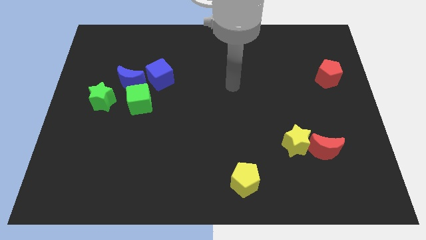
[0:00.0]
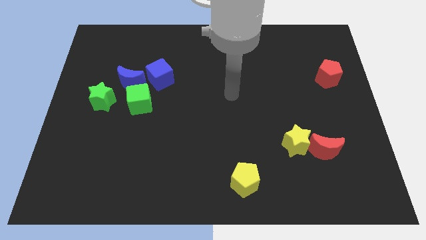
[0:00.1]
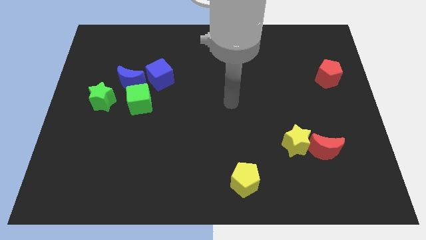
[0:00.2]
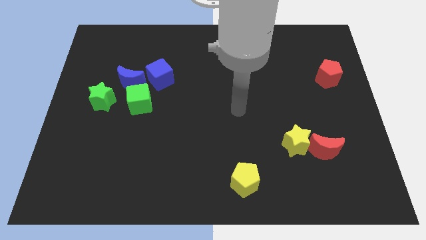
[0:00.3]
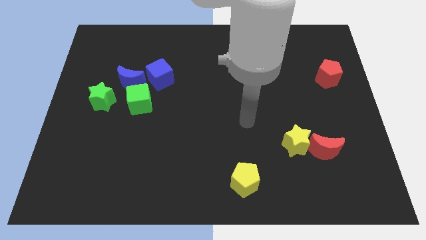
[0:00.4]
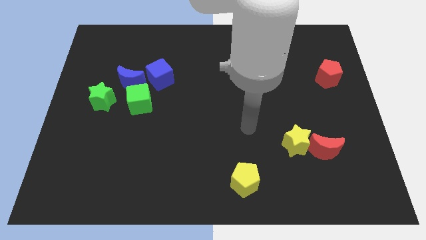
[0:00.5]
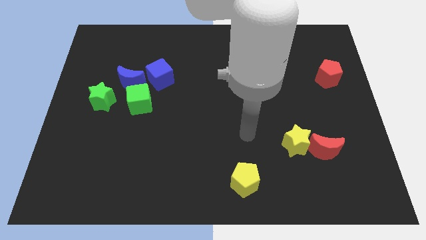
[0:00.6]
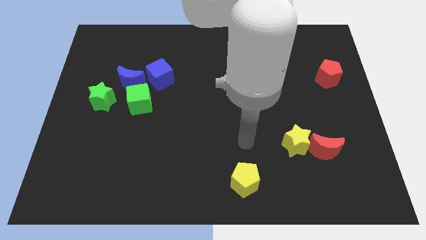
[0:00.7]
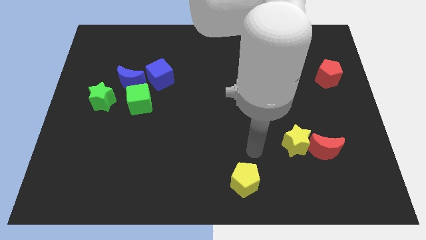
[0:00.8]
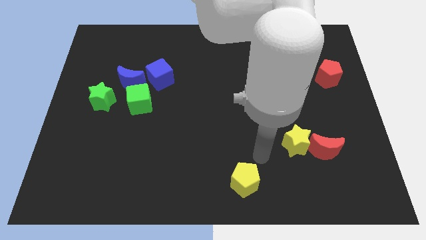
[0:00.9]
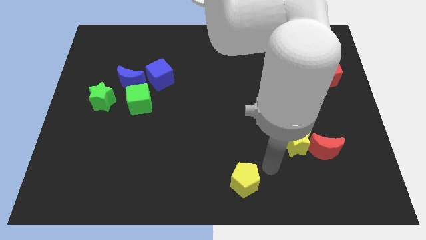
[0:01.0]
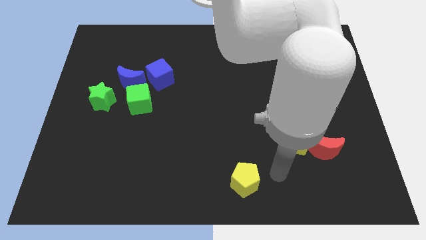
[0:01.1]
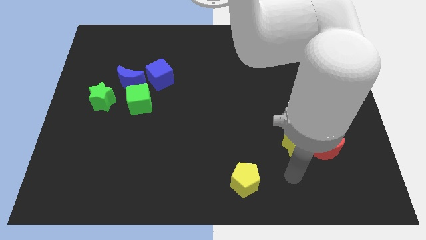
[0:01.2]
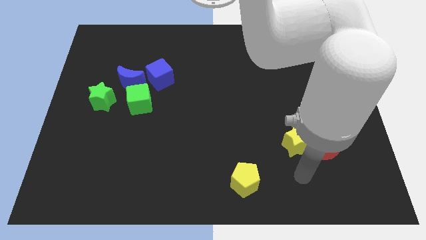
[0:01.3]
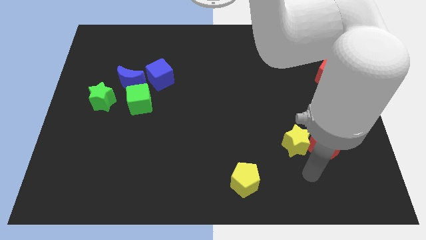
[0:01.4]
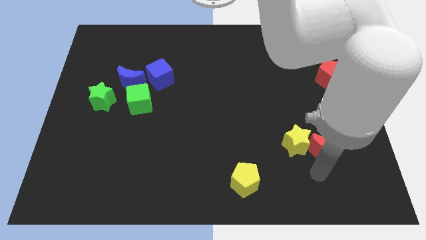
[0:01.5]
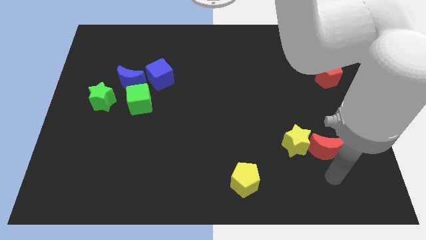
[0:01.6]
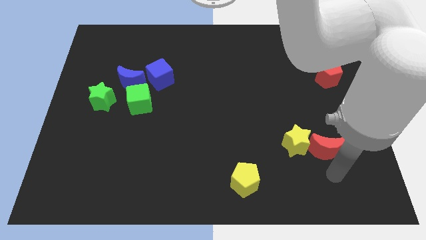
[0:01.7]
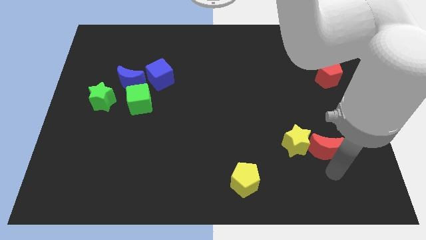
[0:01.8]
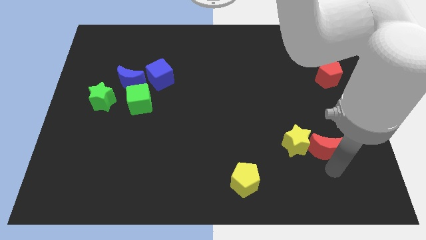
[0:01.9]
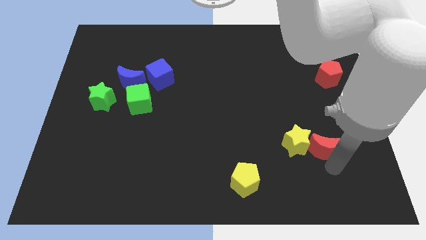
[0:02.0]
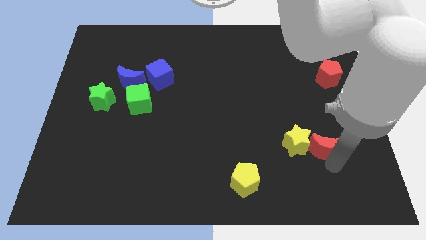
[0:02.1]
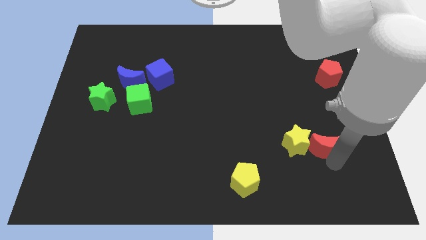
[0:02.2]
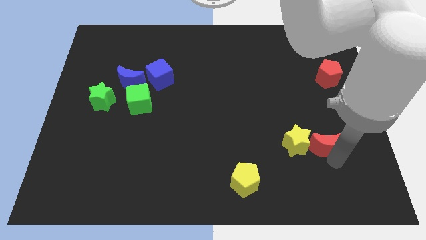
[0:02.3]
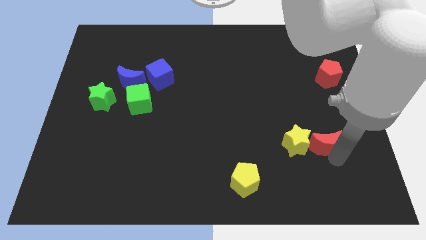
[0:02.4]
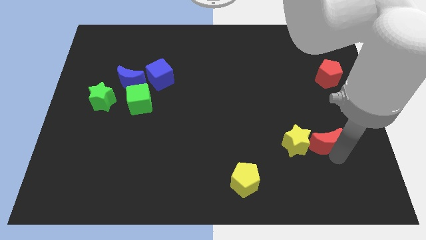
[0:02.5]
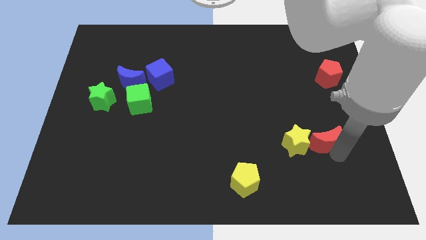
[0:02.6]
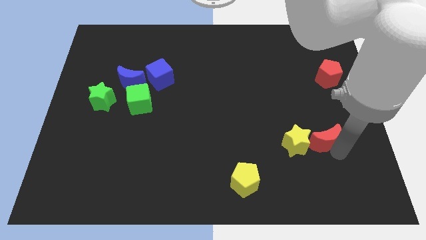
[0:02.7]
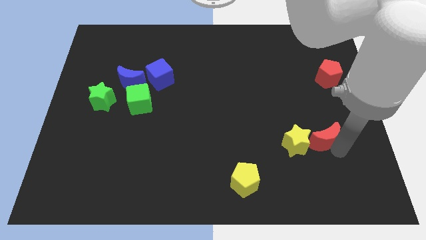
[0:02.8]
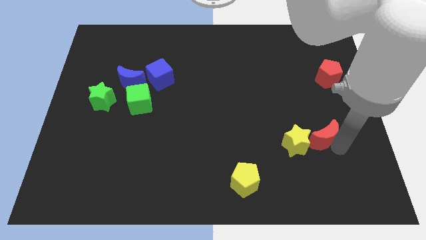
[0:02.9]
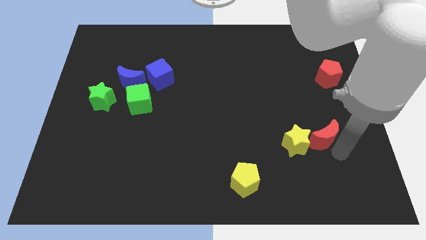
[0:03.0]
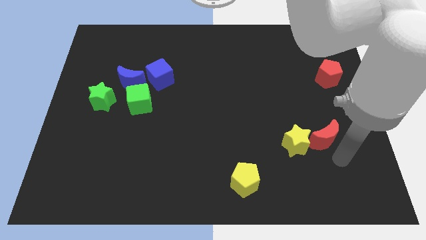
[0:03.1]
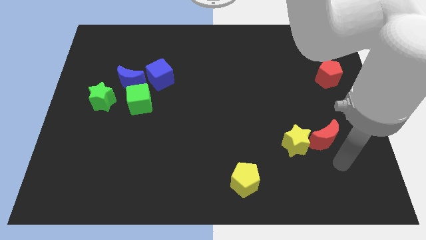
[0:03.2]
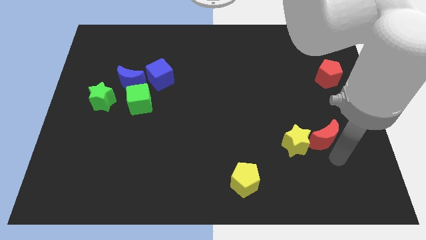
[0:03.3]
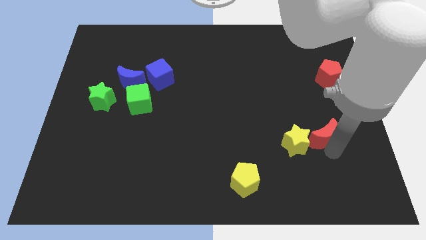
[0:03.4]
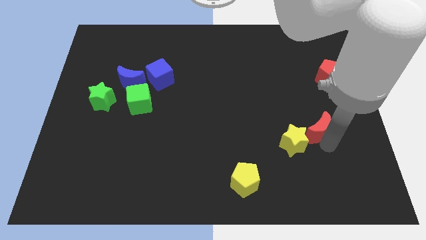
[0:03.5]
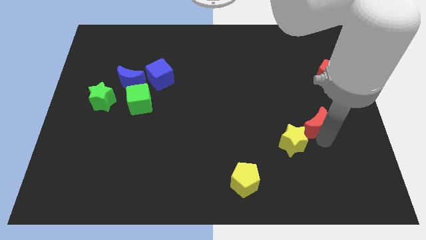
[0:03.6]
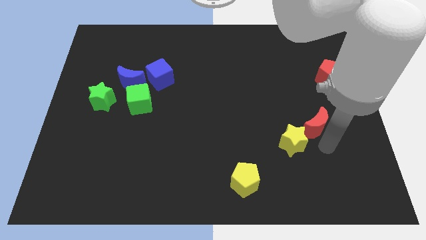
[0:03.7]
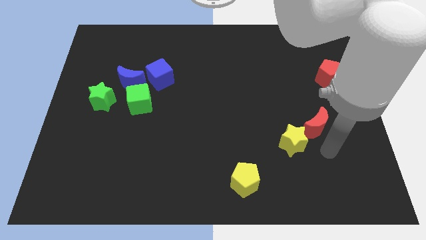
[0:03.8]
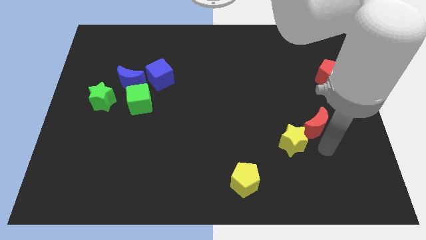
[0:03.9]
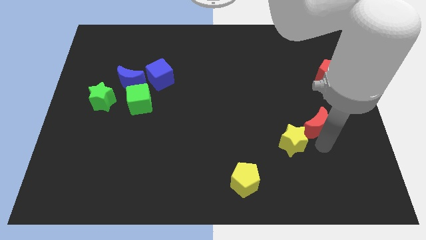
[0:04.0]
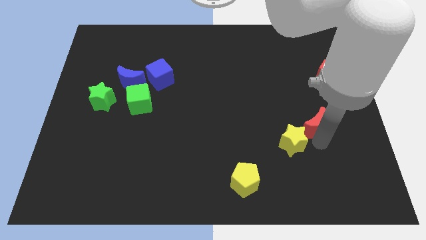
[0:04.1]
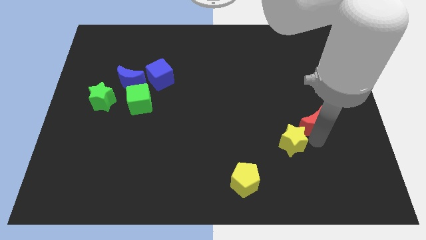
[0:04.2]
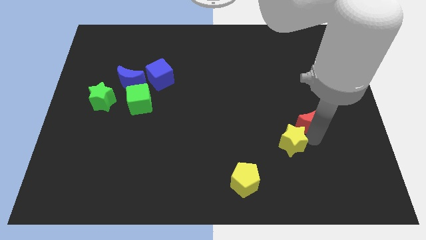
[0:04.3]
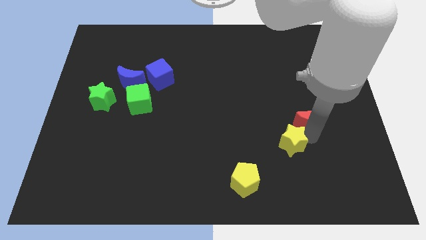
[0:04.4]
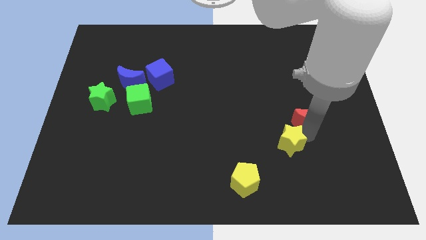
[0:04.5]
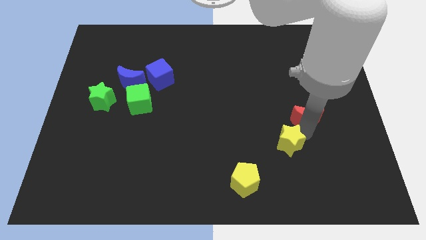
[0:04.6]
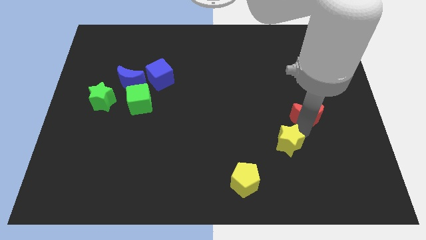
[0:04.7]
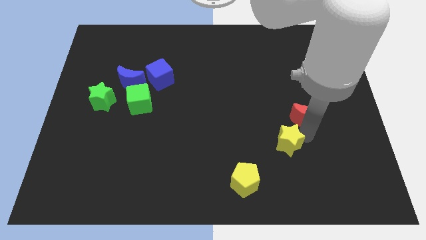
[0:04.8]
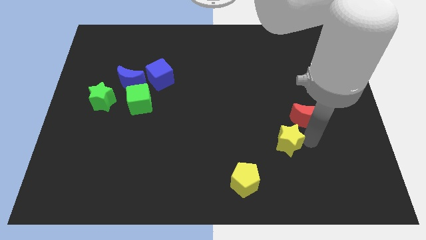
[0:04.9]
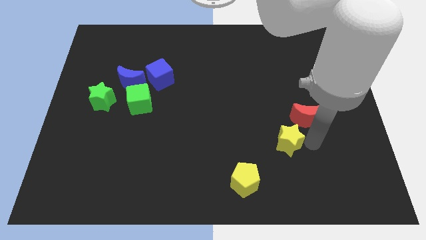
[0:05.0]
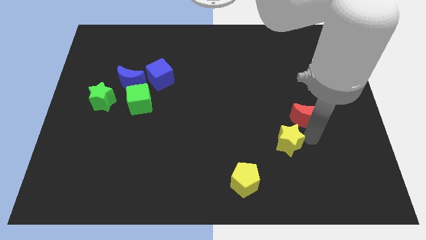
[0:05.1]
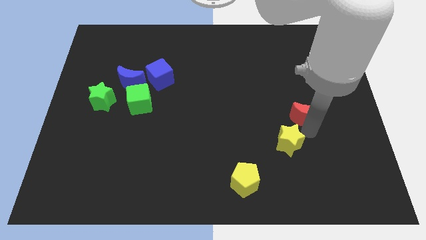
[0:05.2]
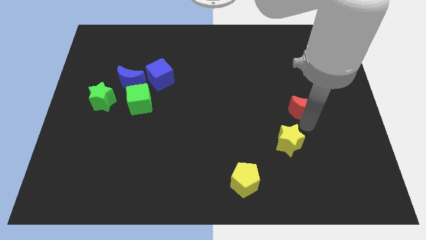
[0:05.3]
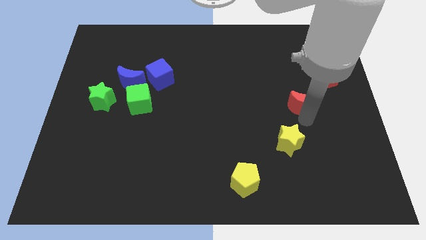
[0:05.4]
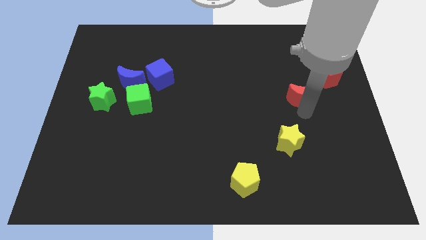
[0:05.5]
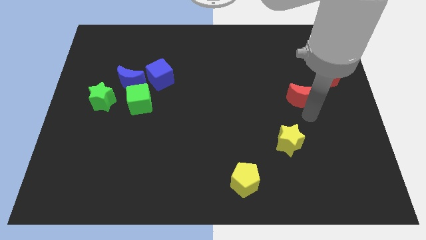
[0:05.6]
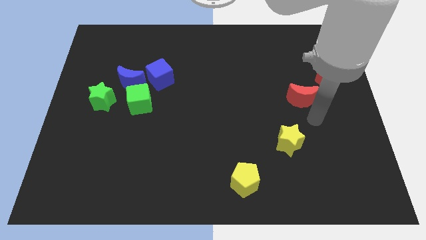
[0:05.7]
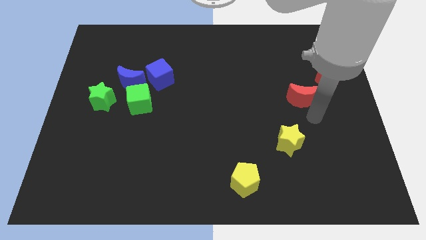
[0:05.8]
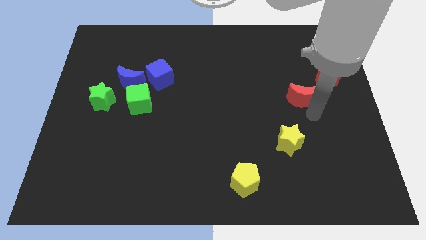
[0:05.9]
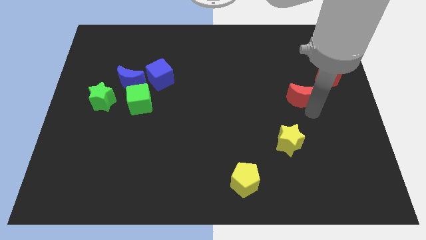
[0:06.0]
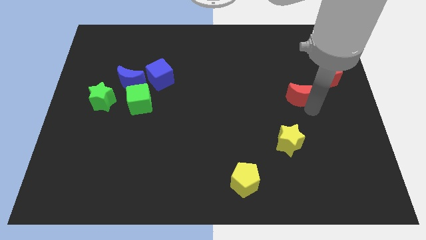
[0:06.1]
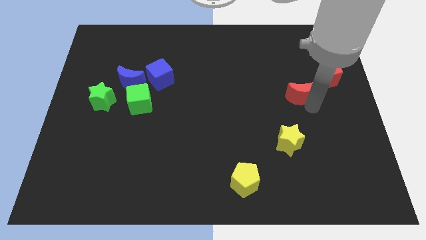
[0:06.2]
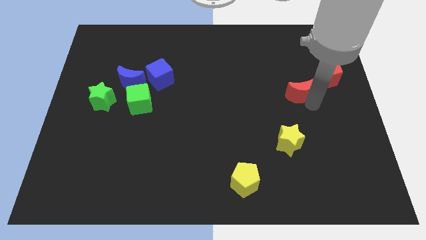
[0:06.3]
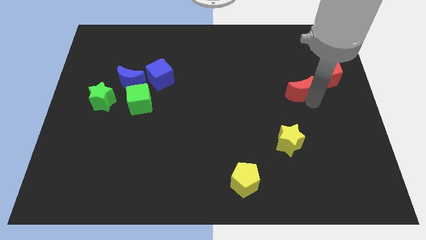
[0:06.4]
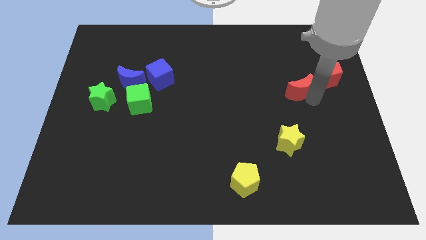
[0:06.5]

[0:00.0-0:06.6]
move the red moon to the left side of the red pentagon

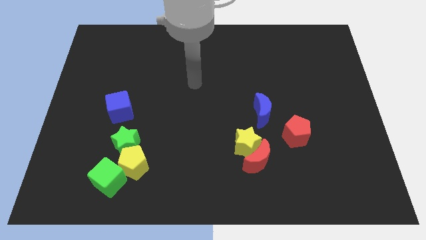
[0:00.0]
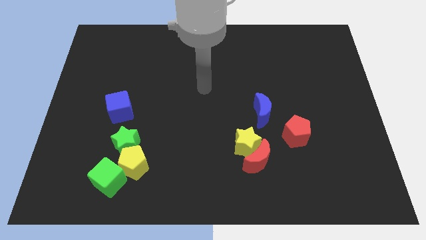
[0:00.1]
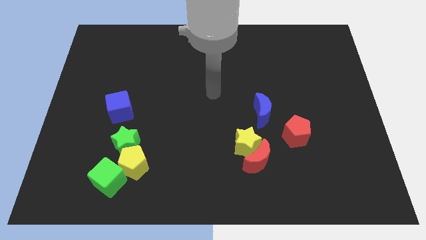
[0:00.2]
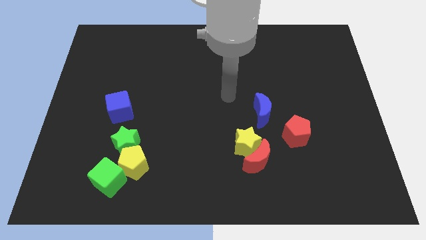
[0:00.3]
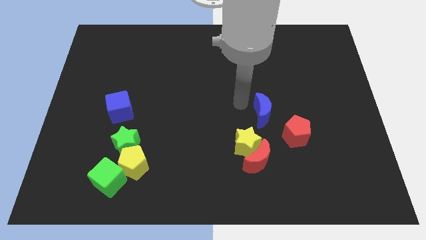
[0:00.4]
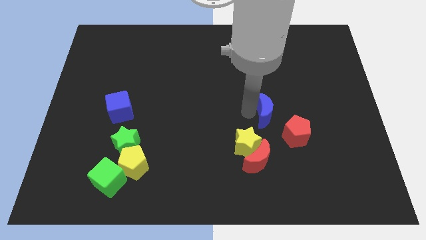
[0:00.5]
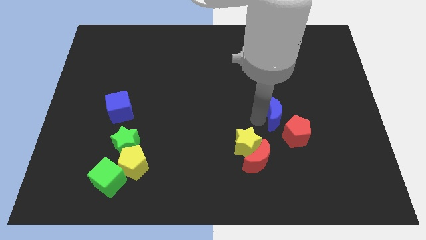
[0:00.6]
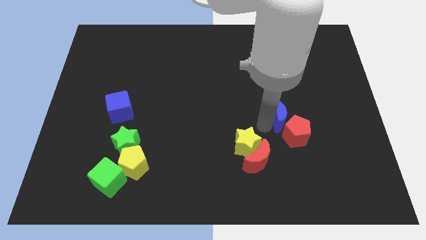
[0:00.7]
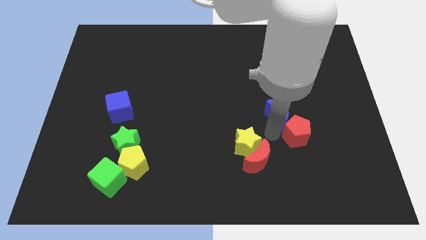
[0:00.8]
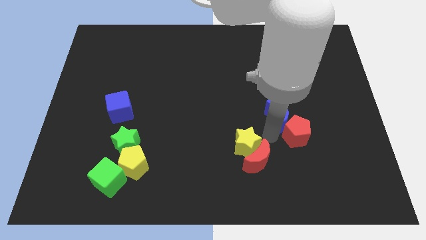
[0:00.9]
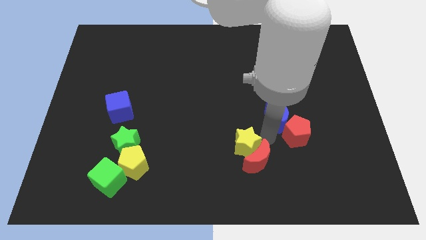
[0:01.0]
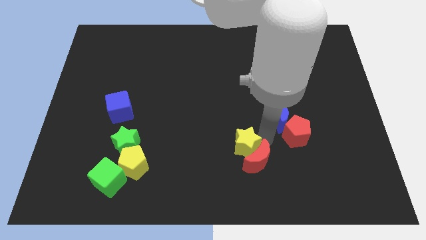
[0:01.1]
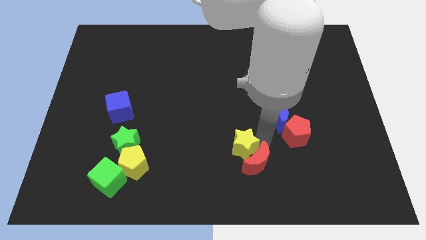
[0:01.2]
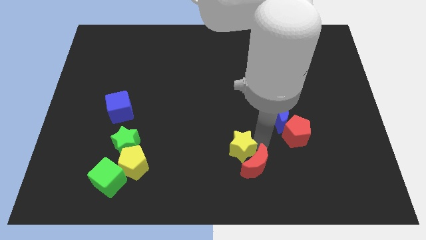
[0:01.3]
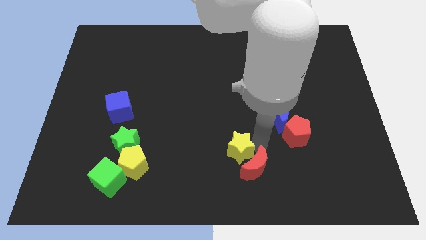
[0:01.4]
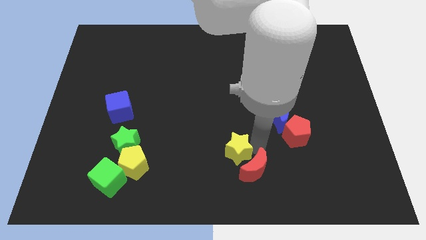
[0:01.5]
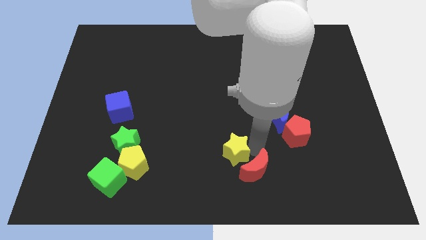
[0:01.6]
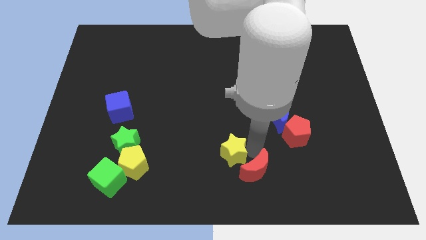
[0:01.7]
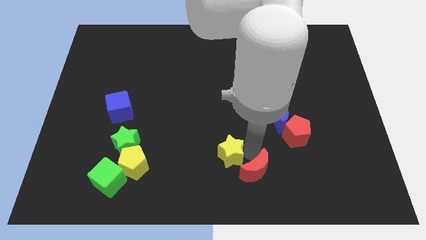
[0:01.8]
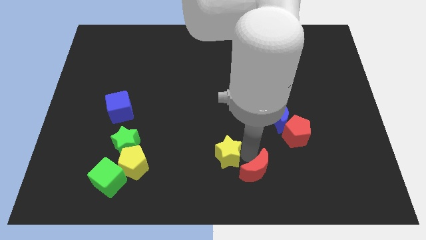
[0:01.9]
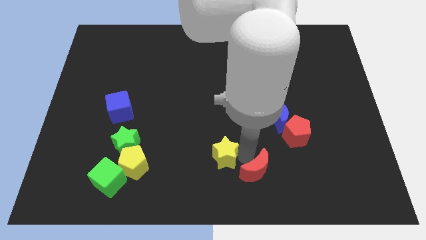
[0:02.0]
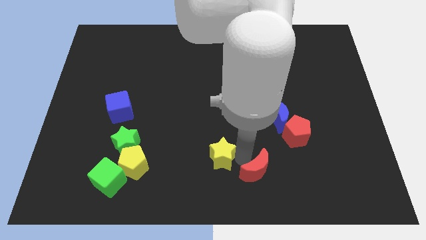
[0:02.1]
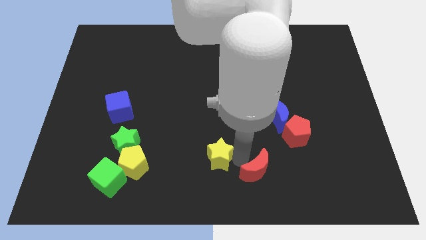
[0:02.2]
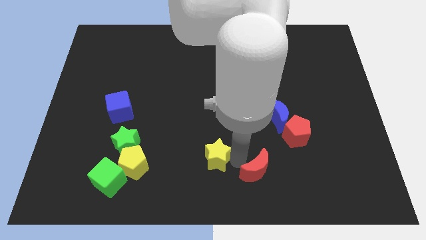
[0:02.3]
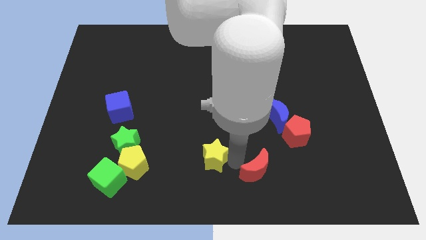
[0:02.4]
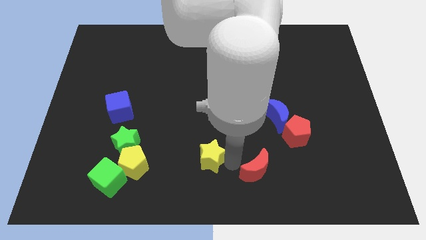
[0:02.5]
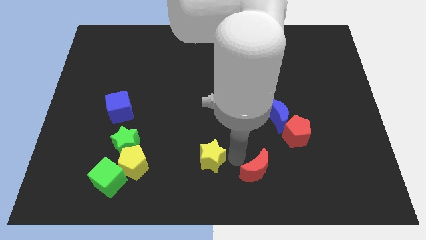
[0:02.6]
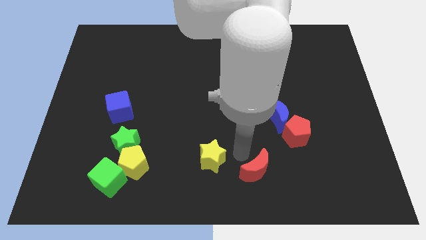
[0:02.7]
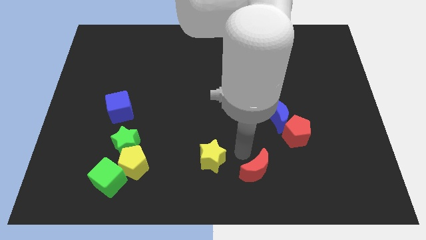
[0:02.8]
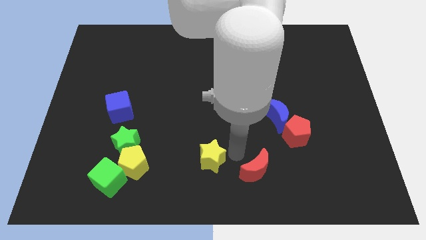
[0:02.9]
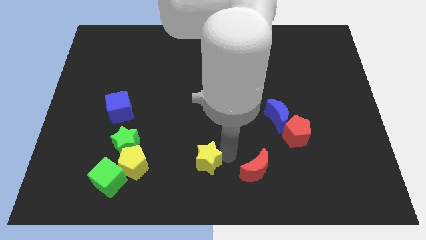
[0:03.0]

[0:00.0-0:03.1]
push the yellow star right of the yellow pentagon
